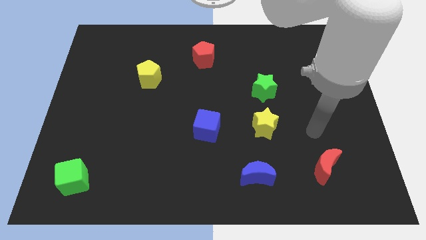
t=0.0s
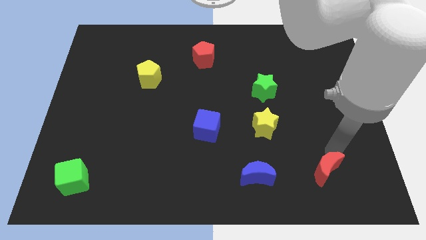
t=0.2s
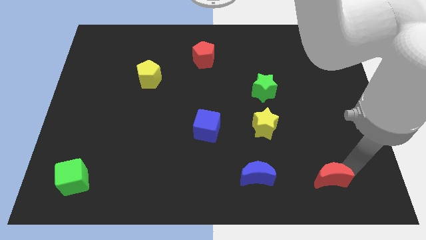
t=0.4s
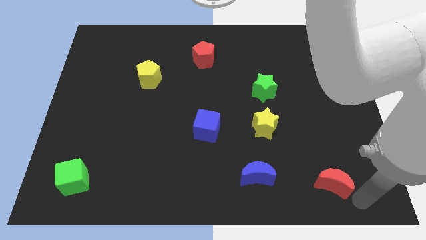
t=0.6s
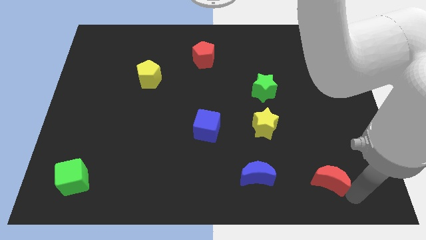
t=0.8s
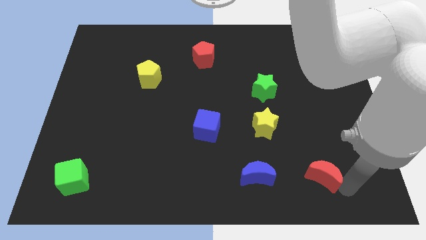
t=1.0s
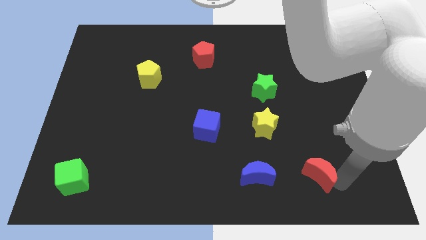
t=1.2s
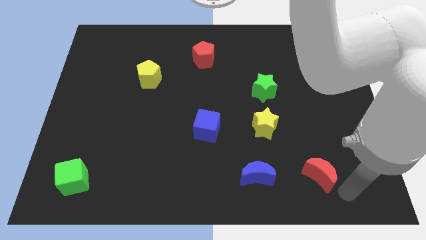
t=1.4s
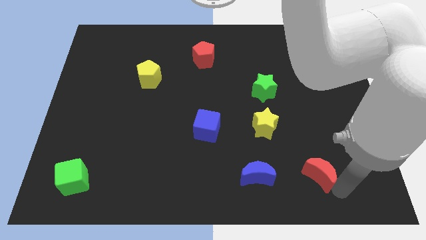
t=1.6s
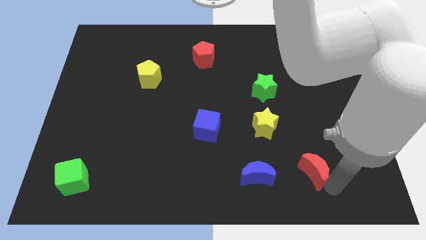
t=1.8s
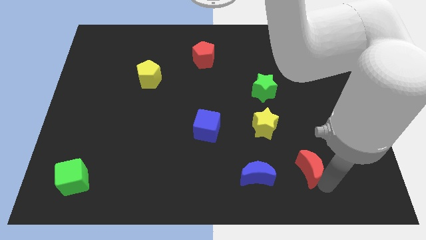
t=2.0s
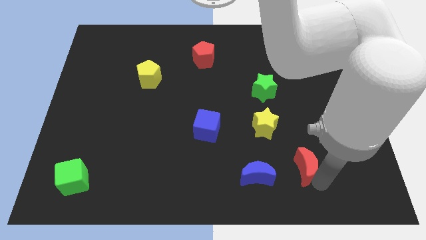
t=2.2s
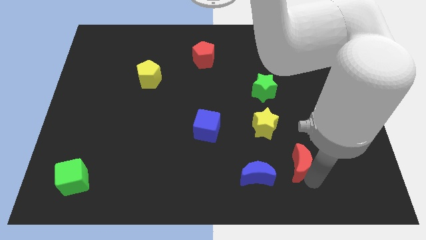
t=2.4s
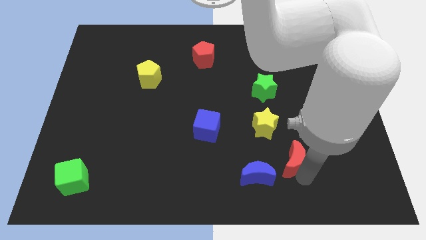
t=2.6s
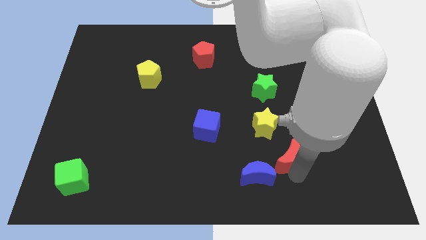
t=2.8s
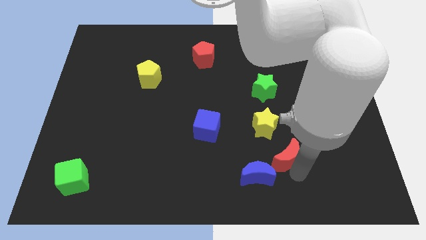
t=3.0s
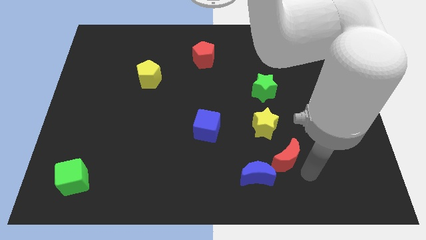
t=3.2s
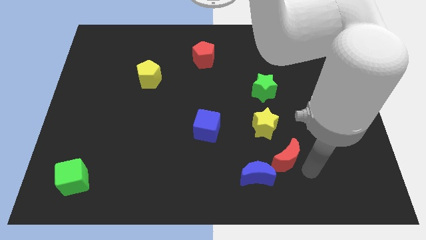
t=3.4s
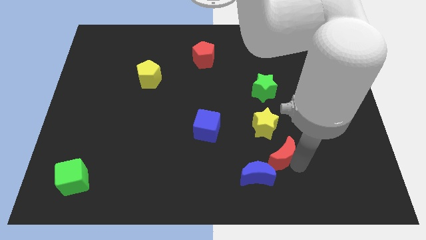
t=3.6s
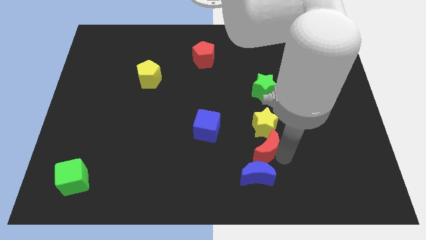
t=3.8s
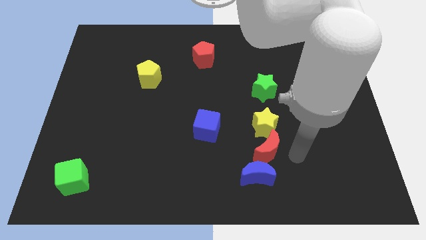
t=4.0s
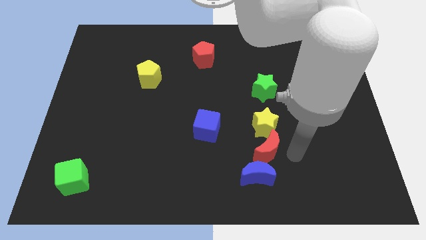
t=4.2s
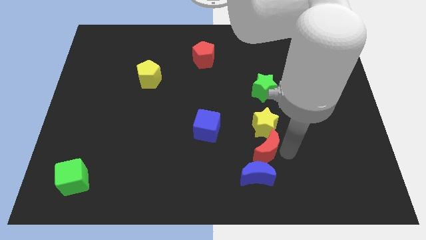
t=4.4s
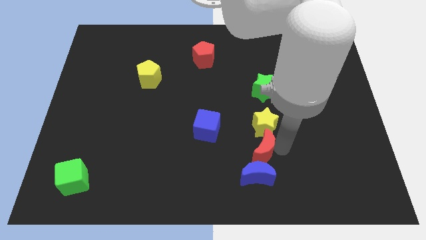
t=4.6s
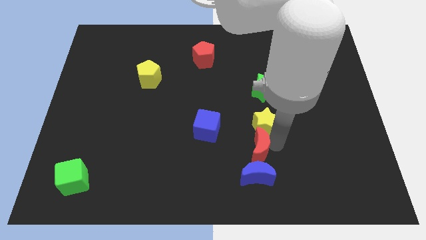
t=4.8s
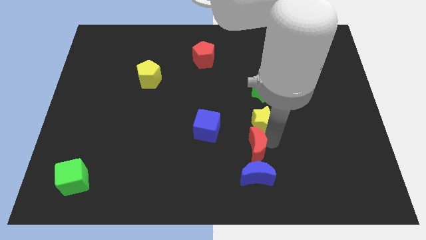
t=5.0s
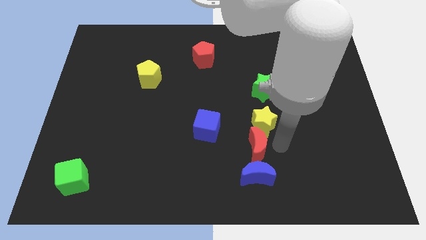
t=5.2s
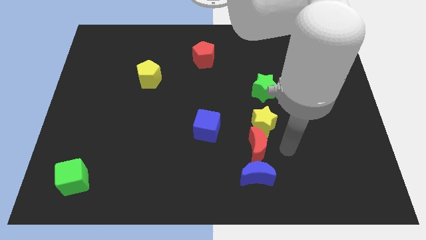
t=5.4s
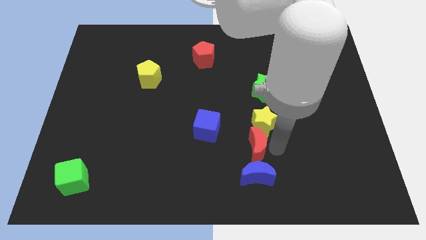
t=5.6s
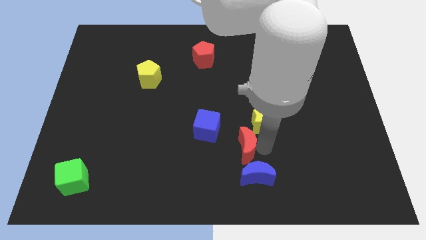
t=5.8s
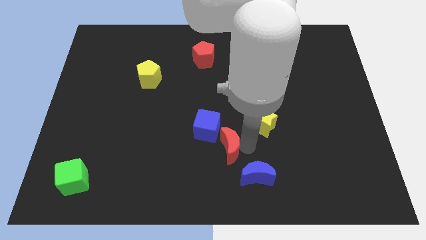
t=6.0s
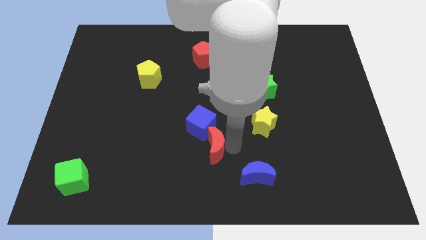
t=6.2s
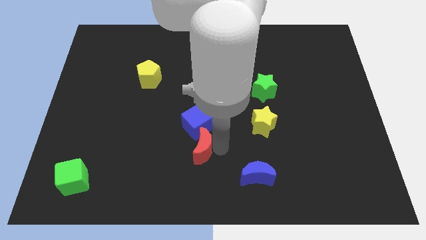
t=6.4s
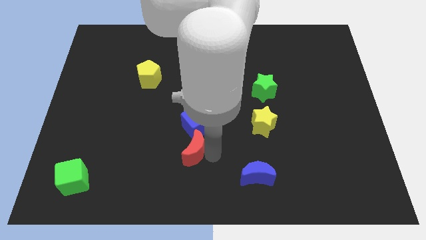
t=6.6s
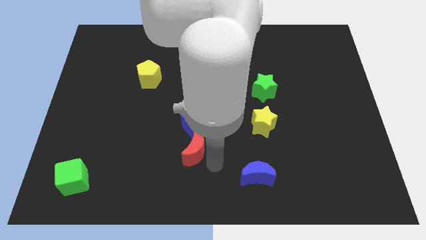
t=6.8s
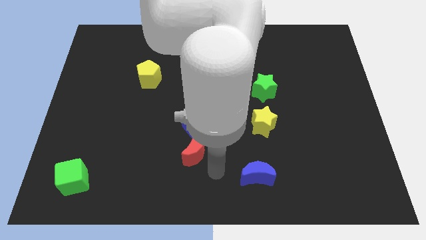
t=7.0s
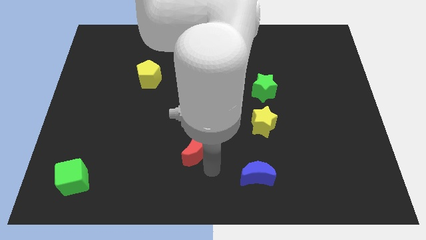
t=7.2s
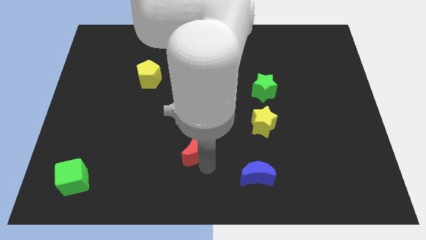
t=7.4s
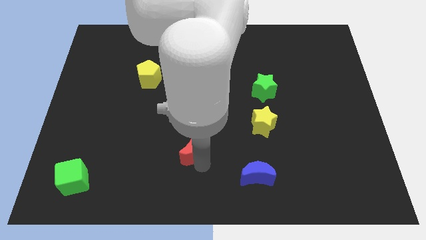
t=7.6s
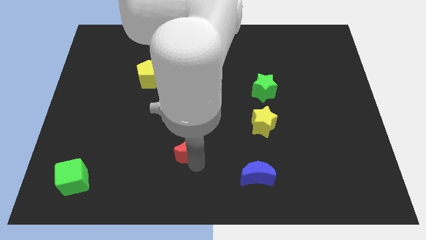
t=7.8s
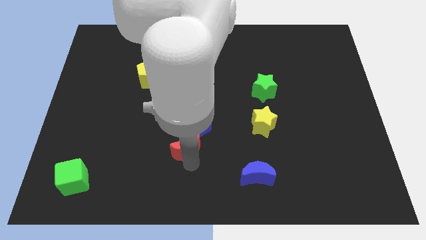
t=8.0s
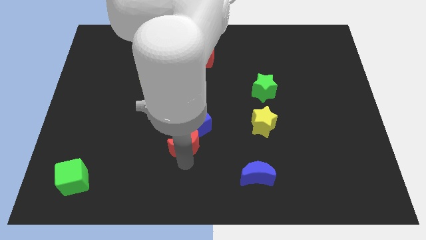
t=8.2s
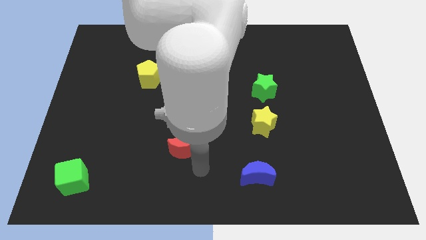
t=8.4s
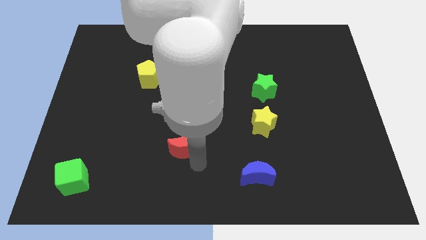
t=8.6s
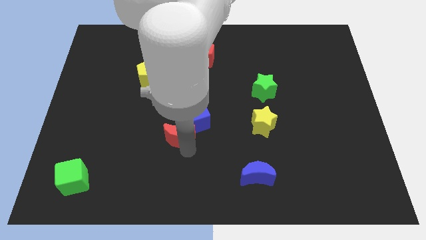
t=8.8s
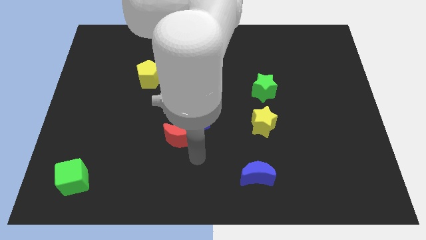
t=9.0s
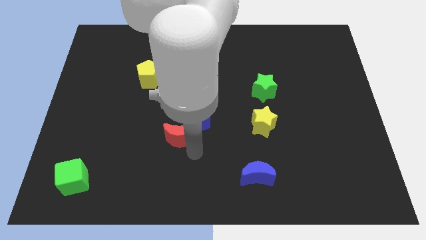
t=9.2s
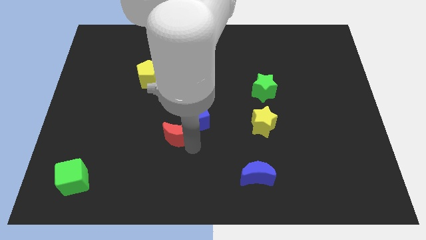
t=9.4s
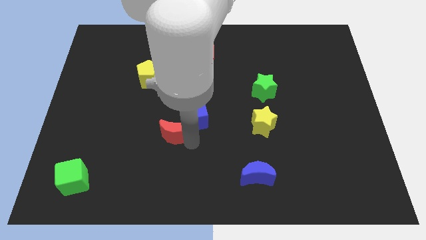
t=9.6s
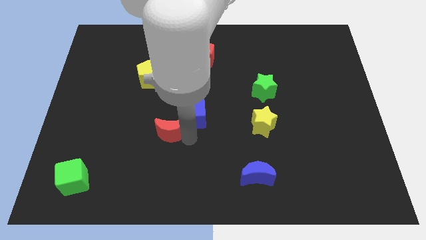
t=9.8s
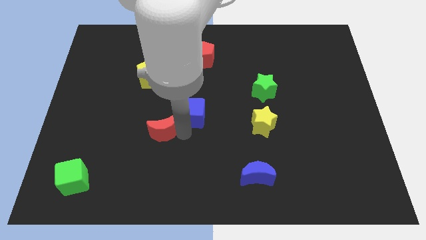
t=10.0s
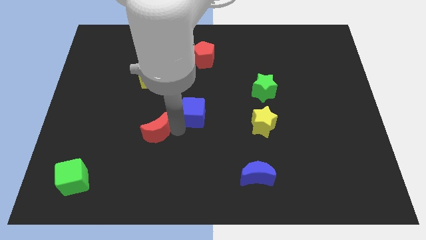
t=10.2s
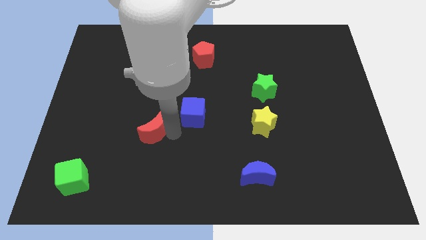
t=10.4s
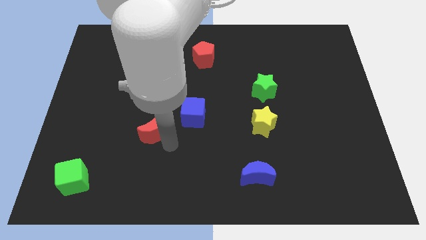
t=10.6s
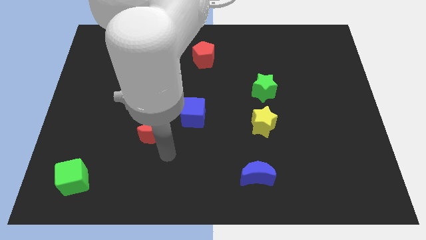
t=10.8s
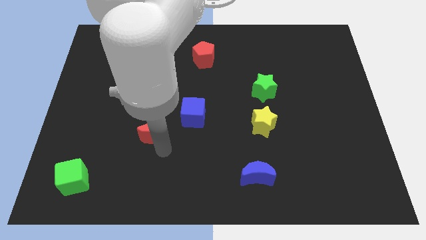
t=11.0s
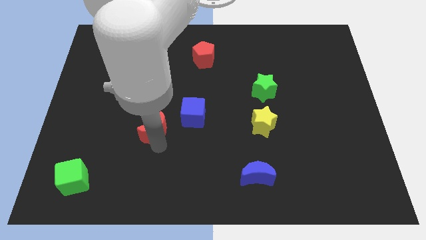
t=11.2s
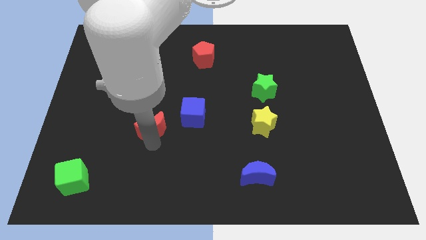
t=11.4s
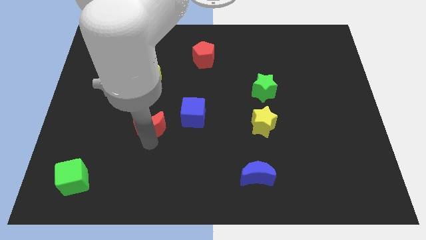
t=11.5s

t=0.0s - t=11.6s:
move the red moon below the yellow pentagon

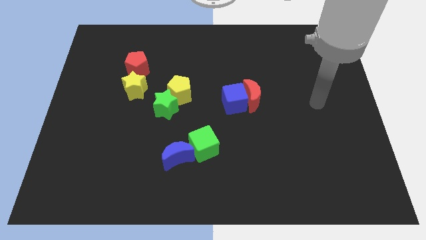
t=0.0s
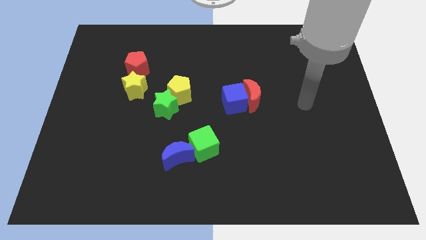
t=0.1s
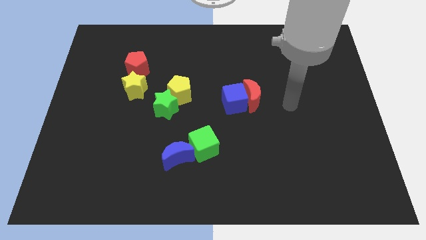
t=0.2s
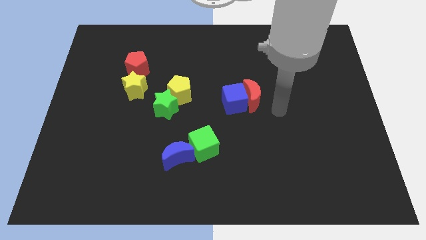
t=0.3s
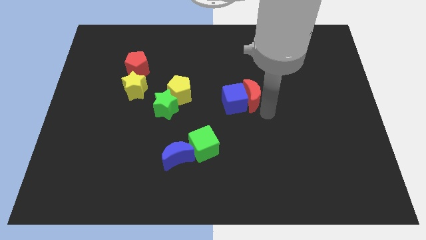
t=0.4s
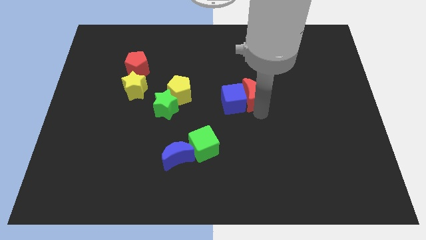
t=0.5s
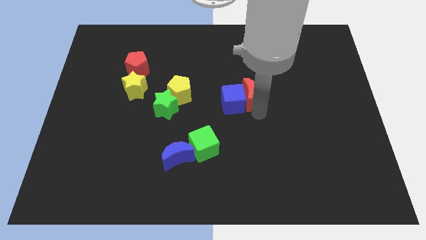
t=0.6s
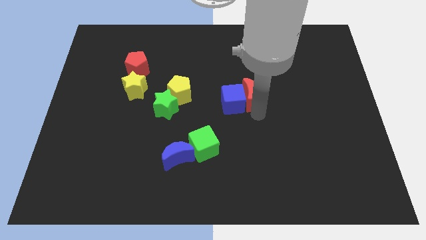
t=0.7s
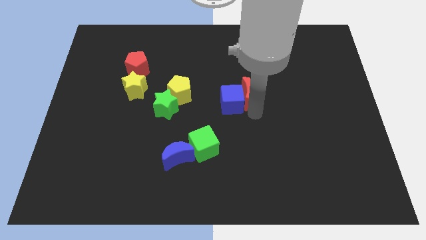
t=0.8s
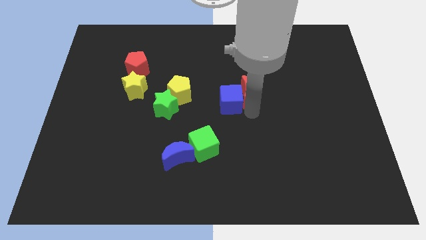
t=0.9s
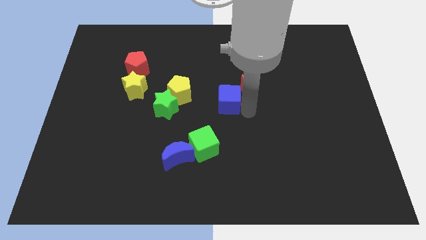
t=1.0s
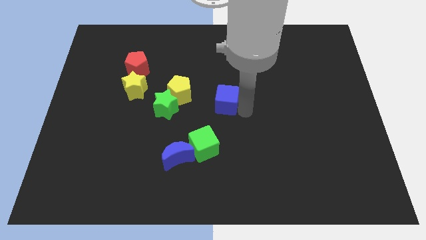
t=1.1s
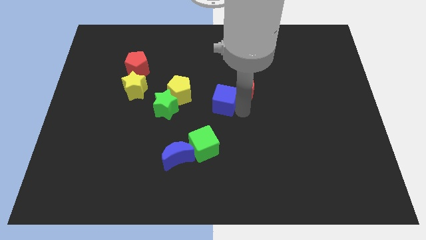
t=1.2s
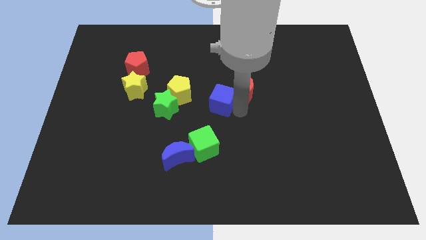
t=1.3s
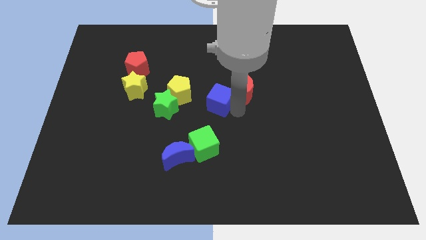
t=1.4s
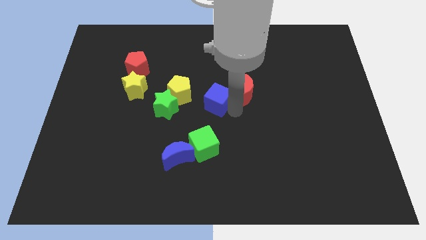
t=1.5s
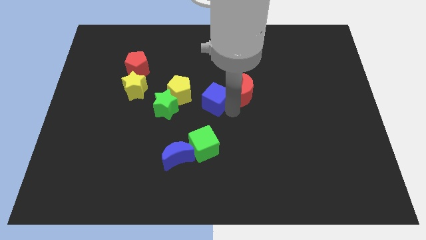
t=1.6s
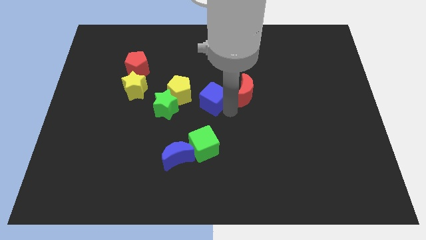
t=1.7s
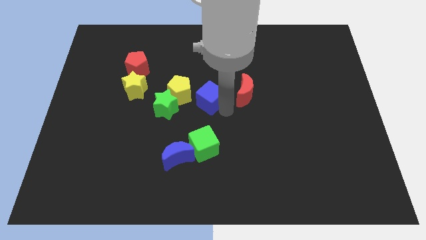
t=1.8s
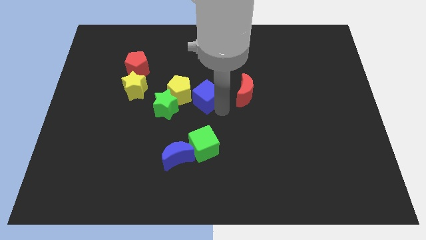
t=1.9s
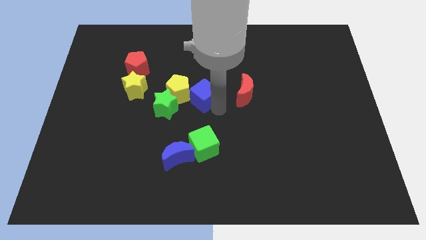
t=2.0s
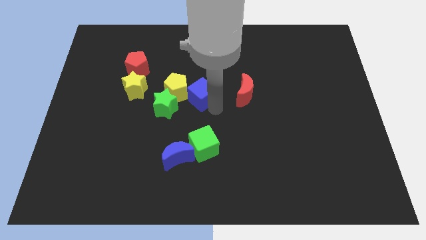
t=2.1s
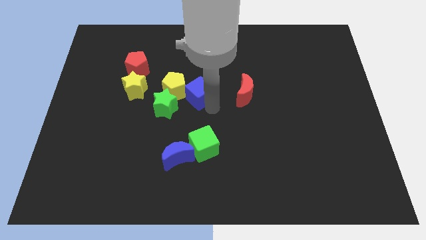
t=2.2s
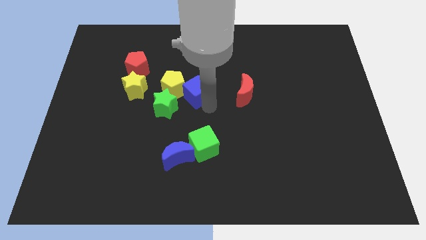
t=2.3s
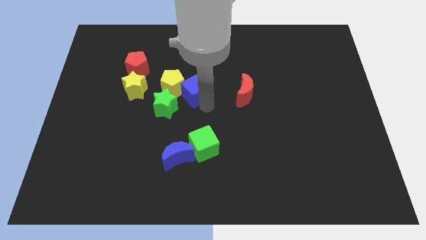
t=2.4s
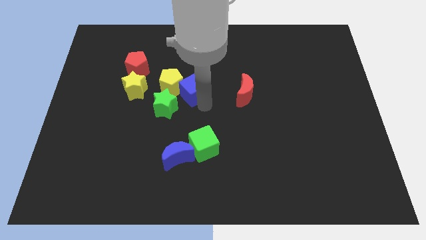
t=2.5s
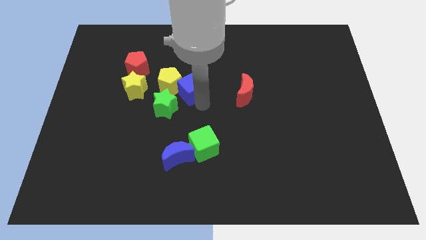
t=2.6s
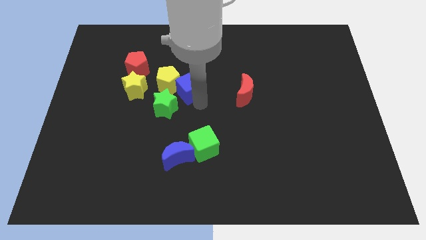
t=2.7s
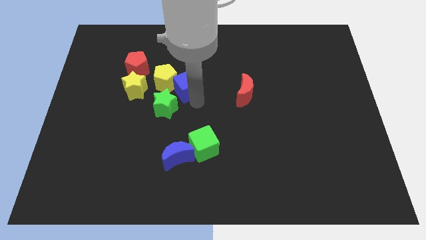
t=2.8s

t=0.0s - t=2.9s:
put the blue cube to the top side of the green star
